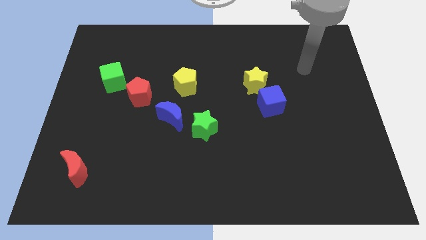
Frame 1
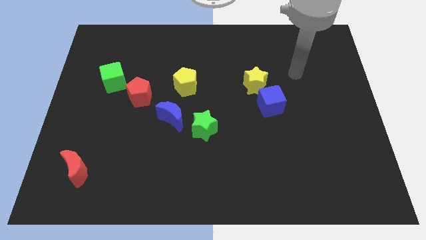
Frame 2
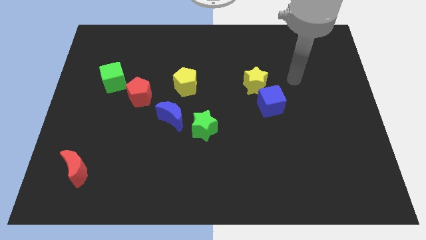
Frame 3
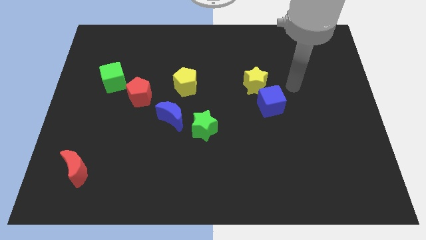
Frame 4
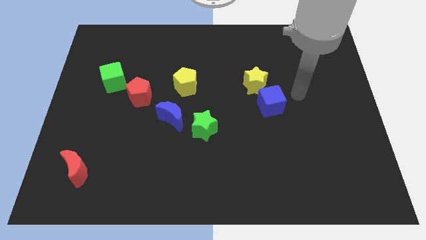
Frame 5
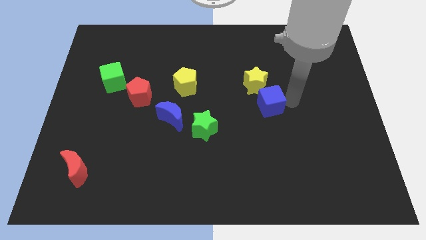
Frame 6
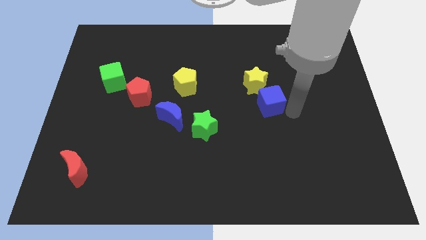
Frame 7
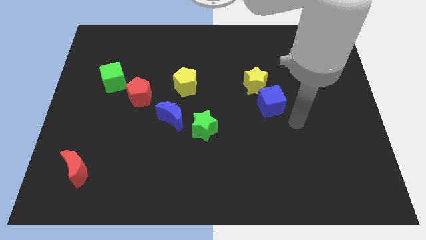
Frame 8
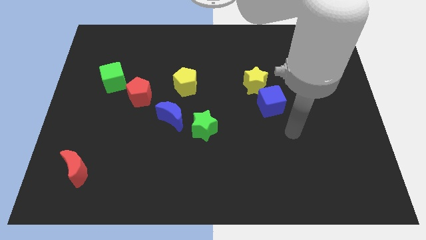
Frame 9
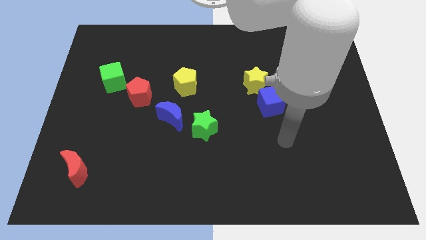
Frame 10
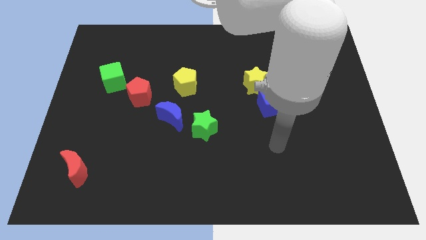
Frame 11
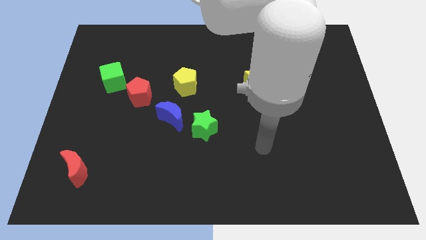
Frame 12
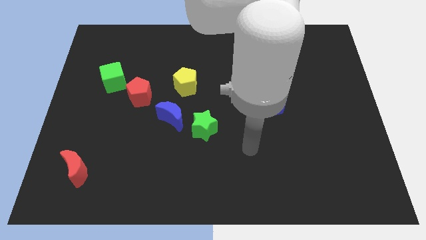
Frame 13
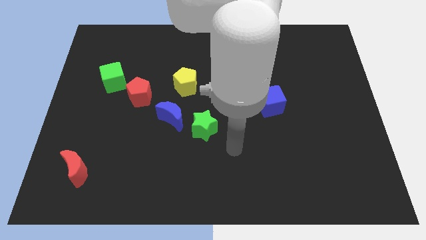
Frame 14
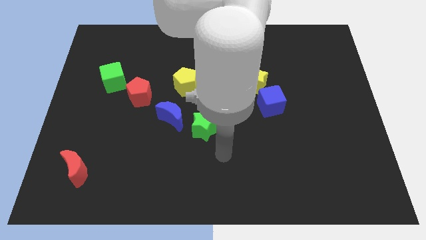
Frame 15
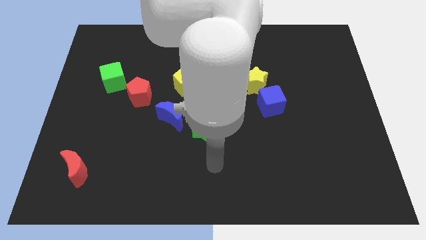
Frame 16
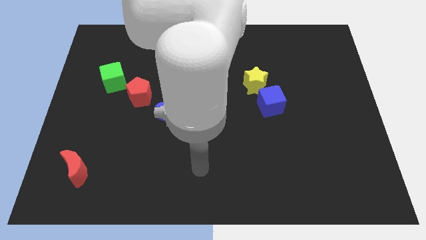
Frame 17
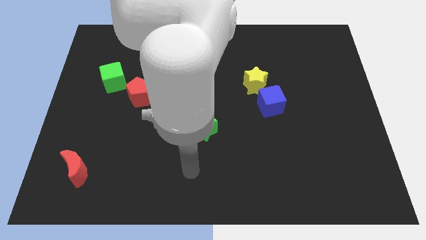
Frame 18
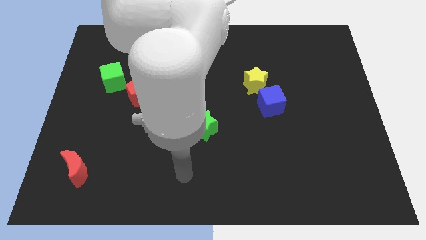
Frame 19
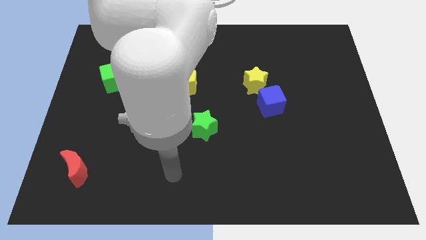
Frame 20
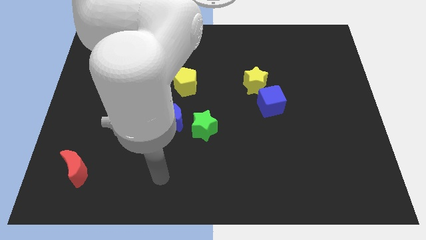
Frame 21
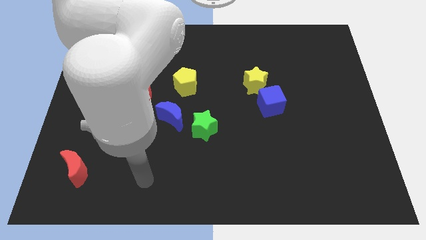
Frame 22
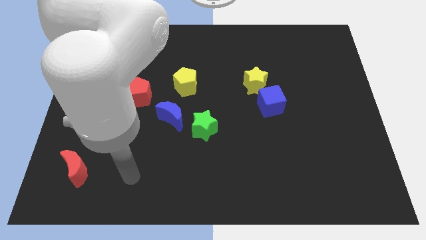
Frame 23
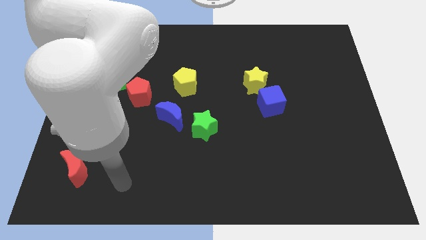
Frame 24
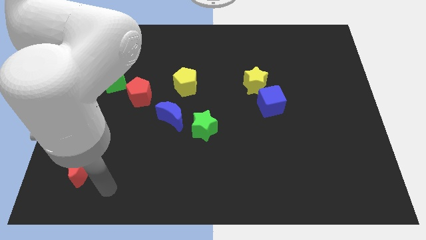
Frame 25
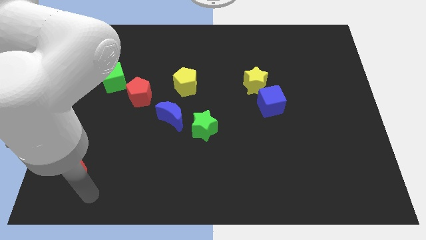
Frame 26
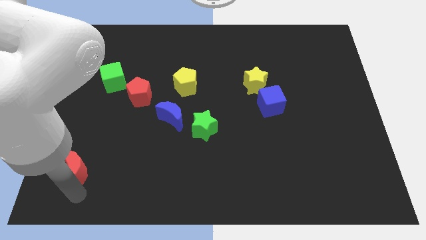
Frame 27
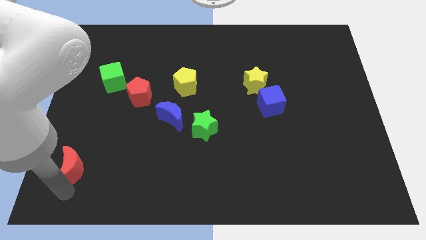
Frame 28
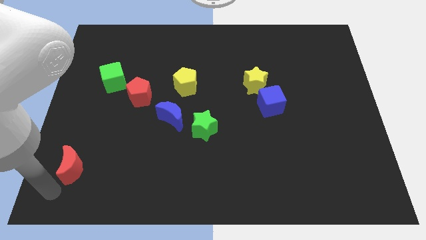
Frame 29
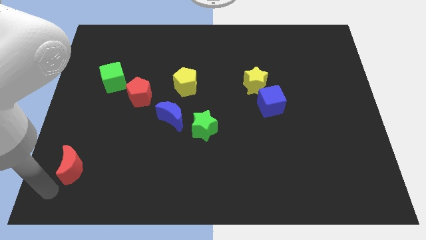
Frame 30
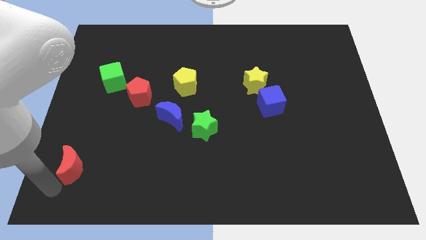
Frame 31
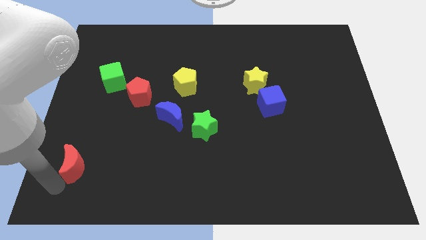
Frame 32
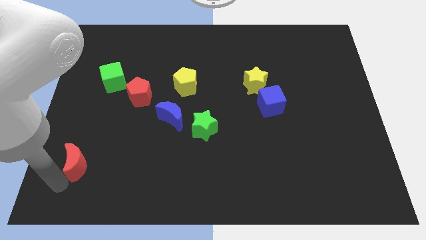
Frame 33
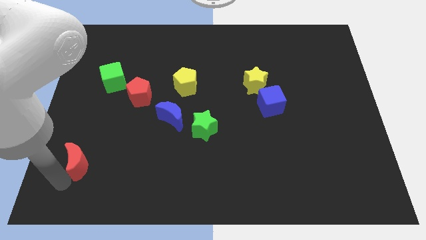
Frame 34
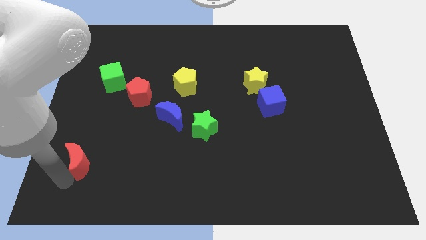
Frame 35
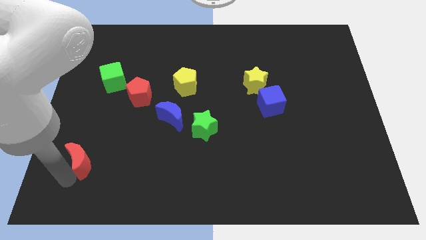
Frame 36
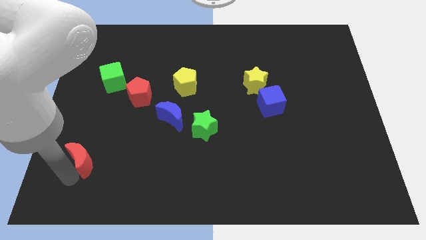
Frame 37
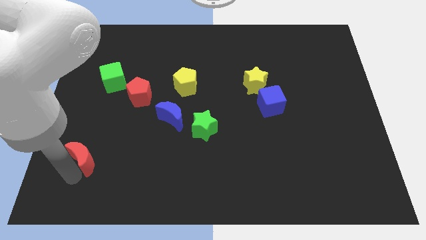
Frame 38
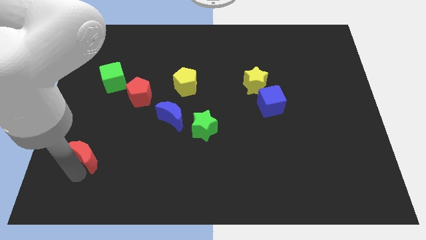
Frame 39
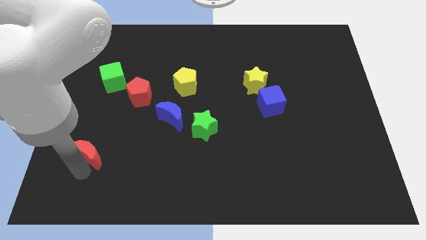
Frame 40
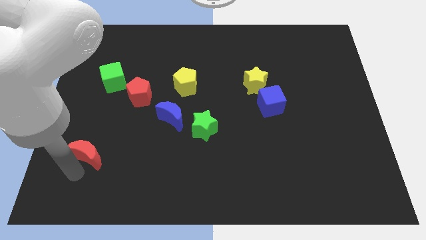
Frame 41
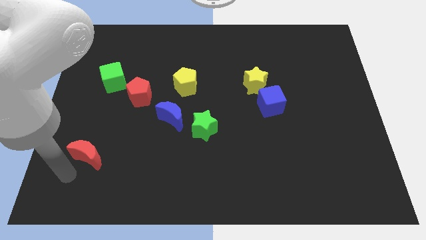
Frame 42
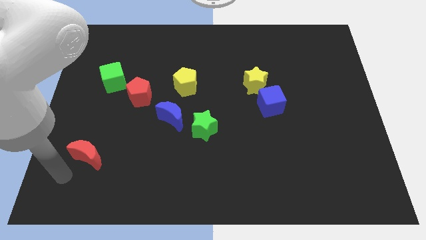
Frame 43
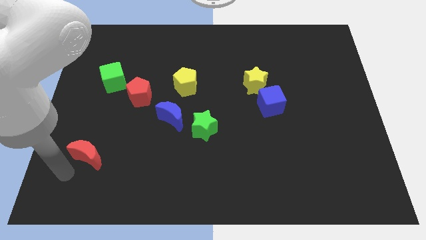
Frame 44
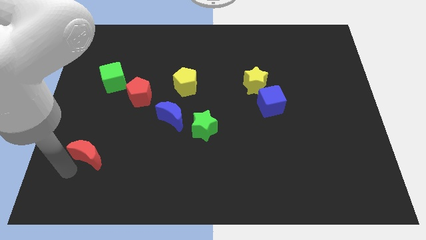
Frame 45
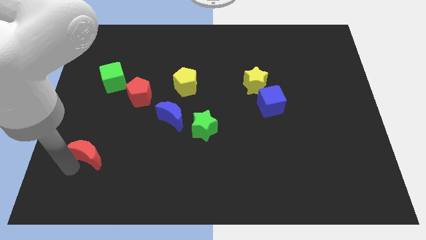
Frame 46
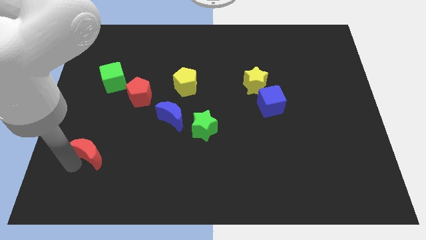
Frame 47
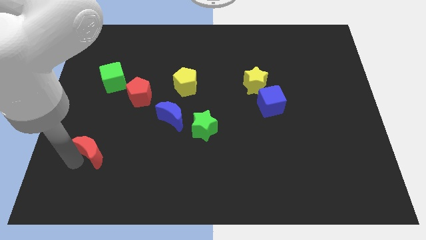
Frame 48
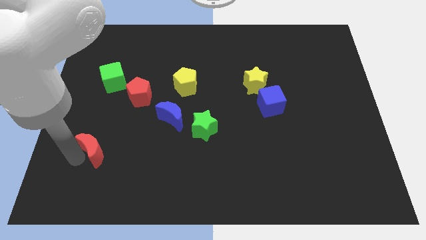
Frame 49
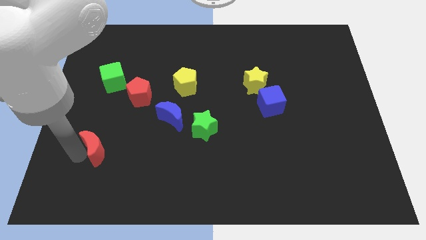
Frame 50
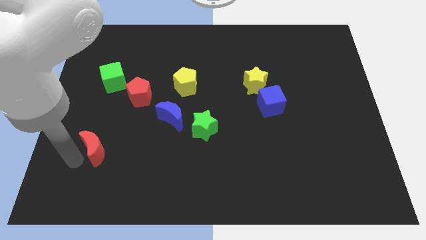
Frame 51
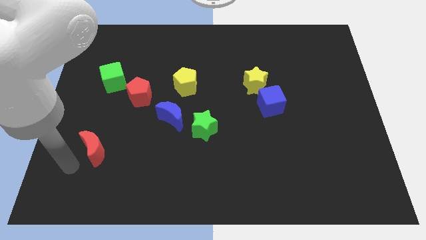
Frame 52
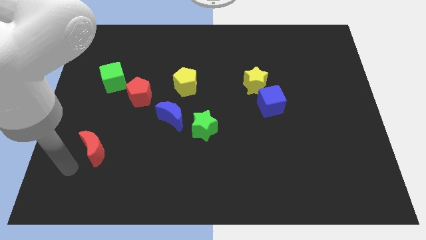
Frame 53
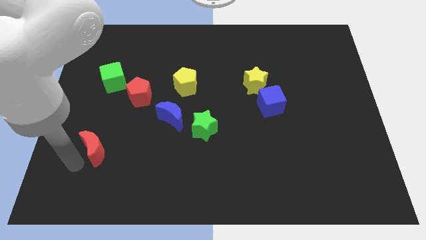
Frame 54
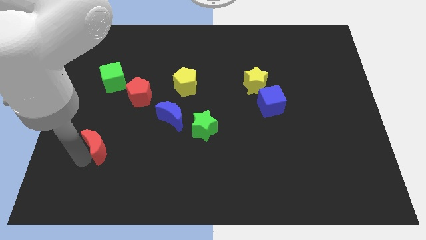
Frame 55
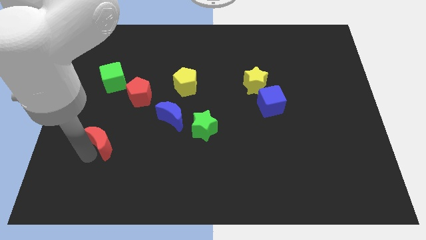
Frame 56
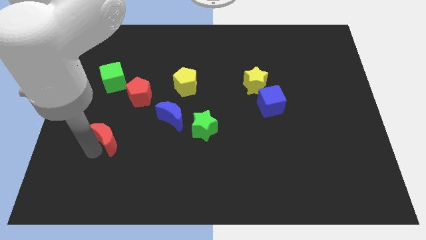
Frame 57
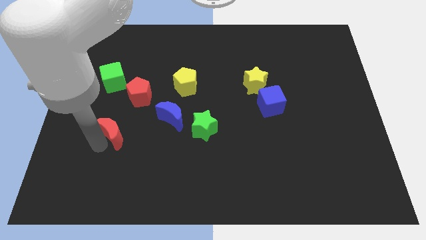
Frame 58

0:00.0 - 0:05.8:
move the red moon below the red pentagon
